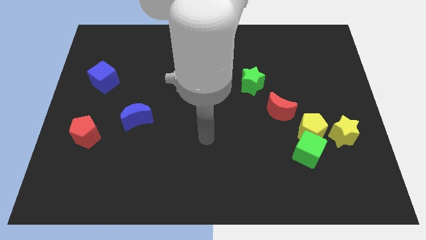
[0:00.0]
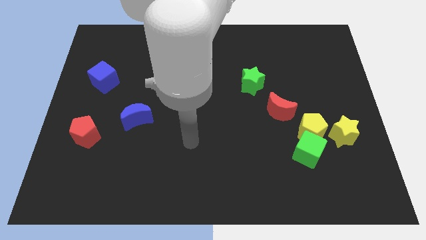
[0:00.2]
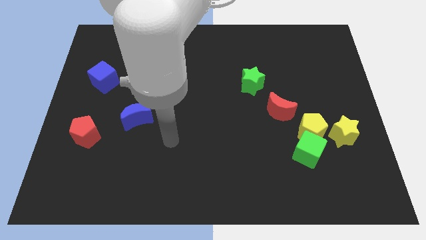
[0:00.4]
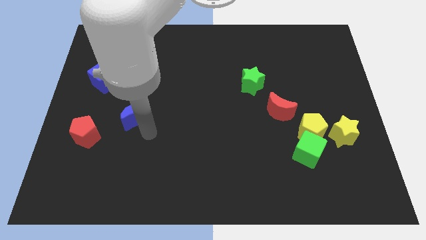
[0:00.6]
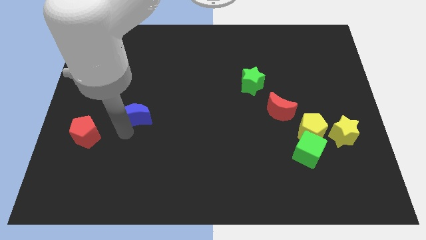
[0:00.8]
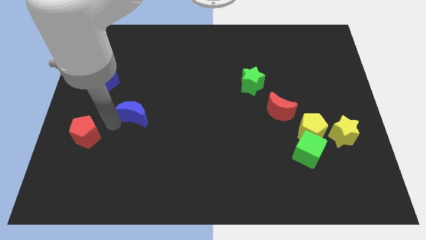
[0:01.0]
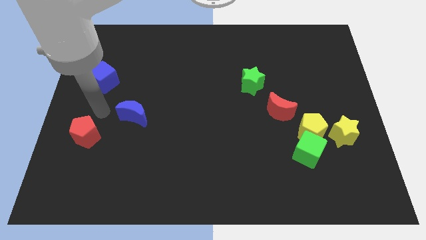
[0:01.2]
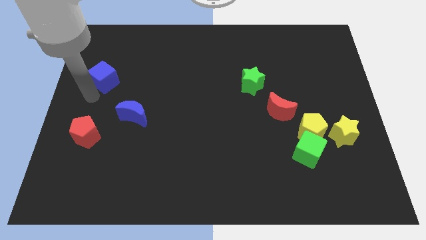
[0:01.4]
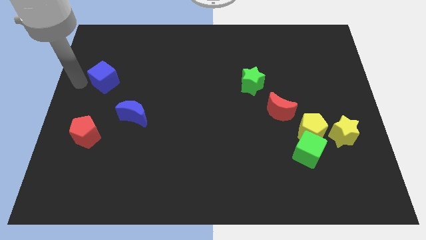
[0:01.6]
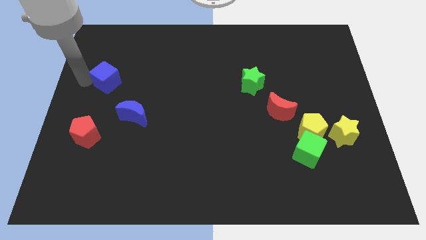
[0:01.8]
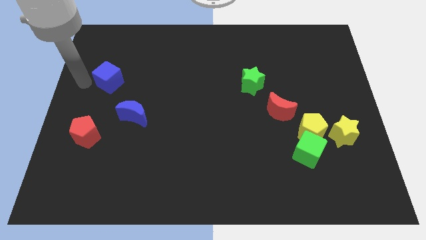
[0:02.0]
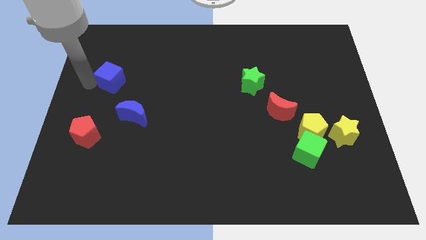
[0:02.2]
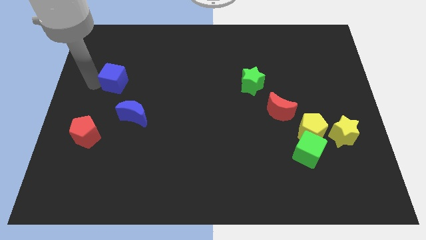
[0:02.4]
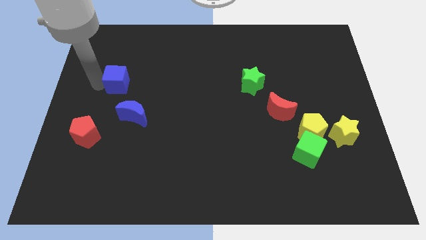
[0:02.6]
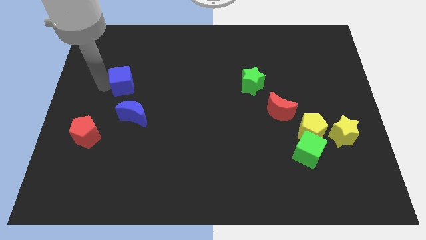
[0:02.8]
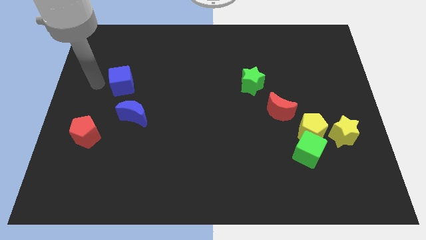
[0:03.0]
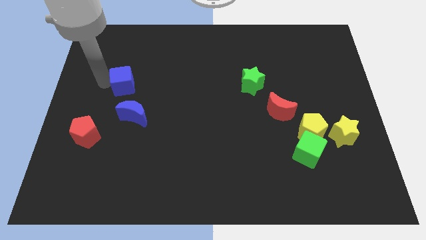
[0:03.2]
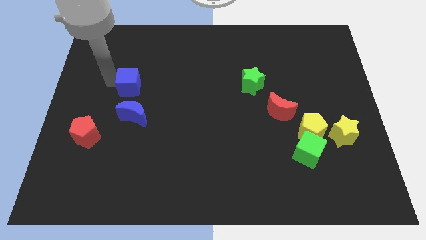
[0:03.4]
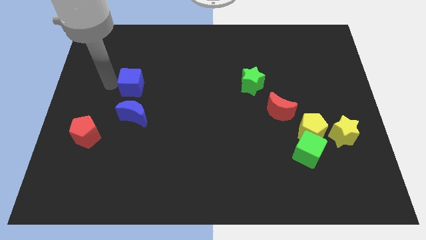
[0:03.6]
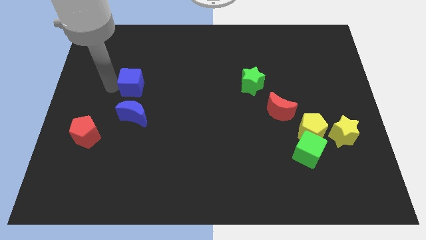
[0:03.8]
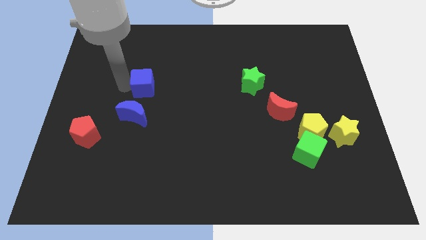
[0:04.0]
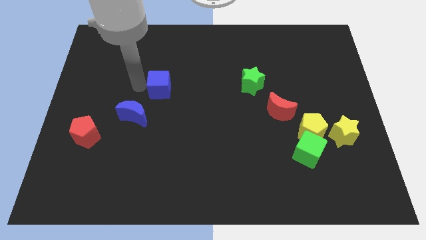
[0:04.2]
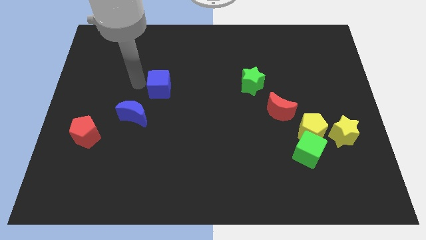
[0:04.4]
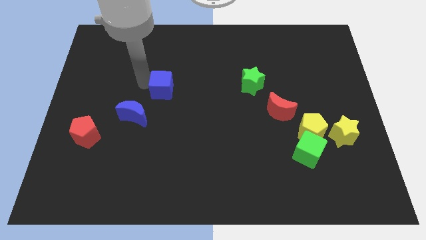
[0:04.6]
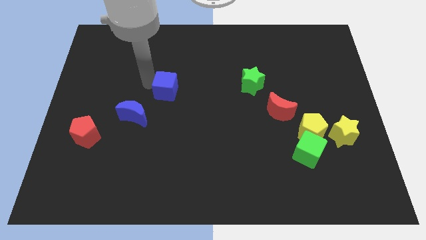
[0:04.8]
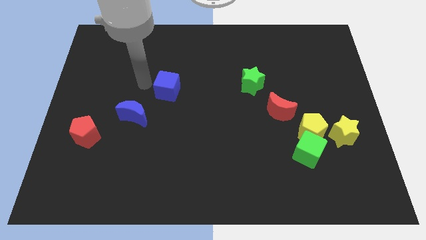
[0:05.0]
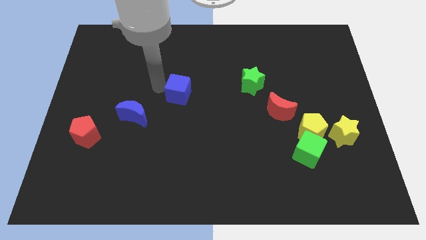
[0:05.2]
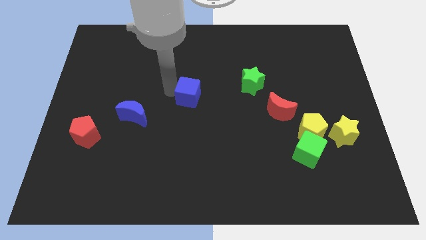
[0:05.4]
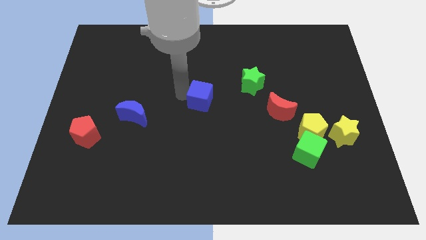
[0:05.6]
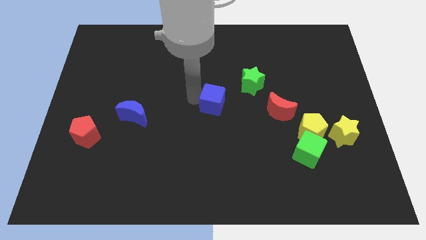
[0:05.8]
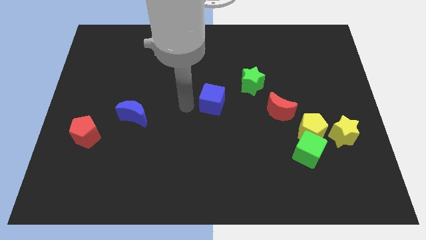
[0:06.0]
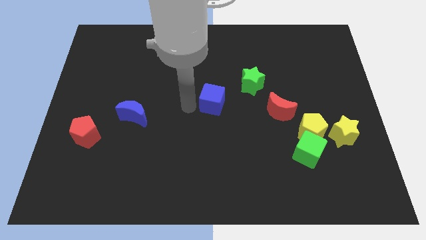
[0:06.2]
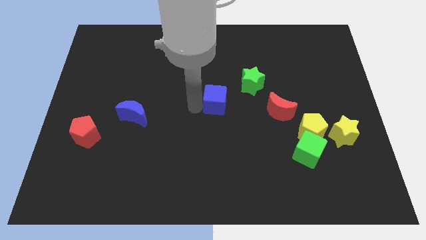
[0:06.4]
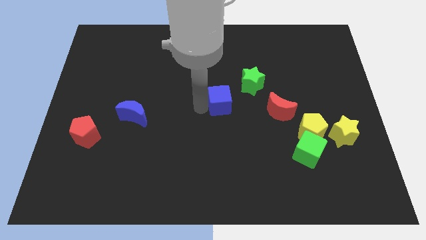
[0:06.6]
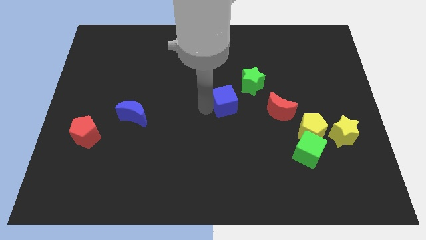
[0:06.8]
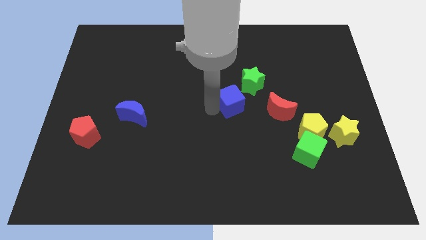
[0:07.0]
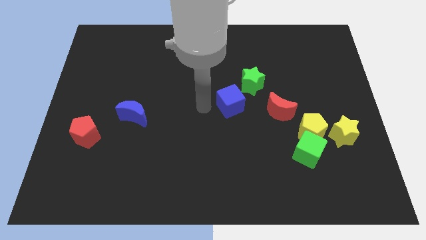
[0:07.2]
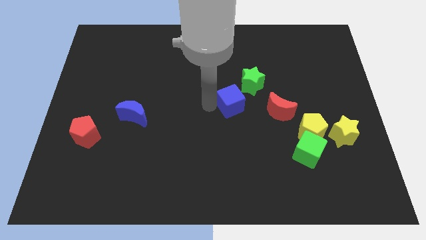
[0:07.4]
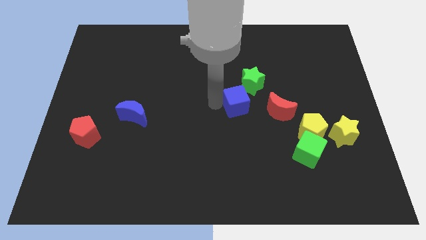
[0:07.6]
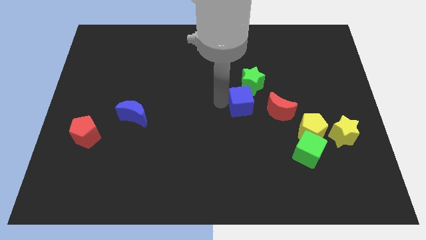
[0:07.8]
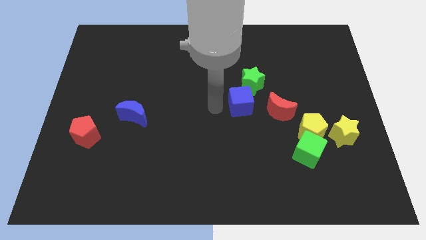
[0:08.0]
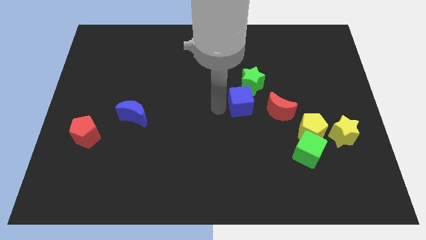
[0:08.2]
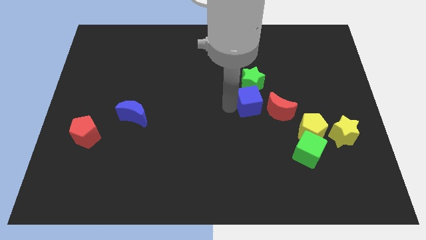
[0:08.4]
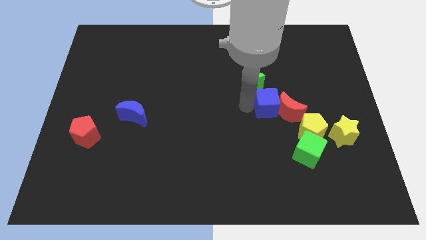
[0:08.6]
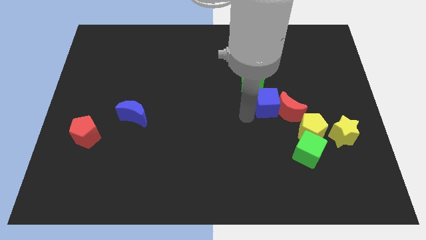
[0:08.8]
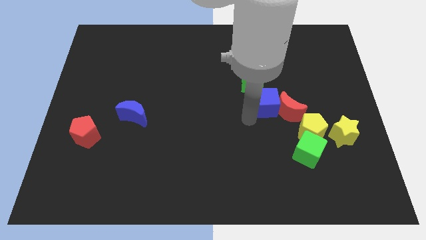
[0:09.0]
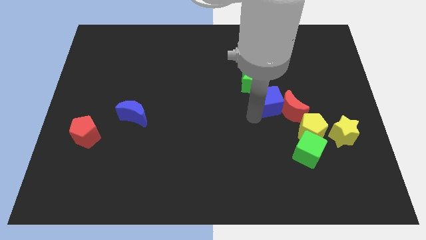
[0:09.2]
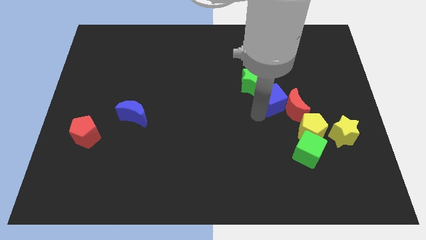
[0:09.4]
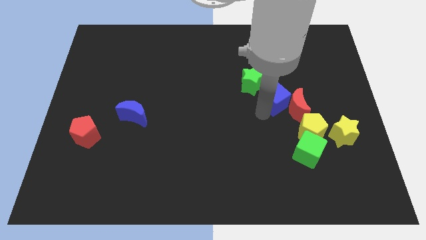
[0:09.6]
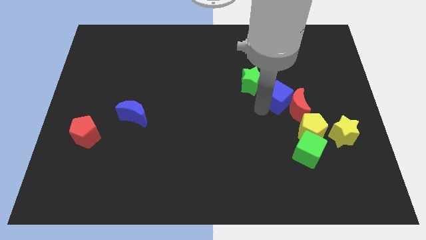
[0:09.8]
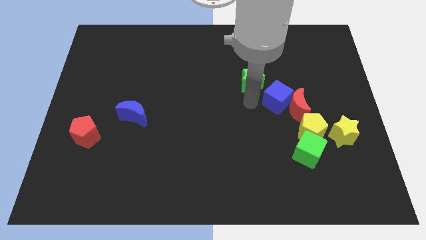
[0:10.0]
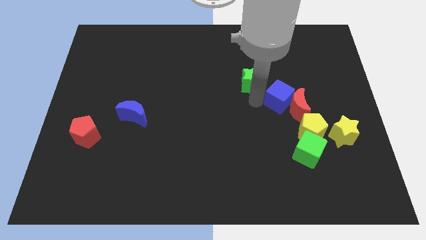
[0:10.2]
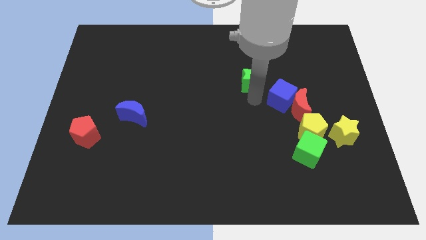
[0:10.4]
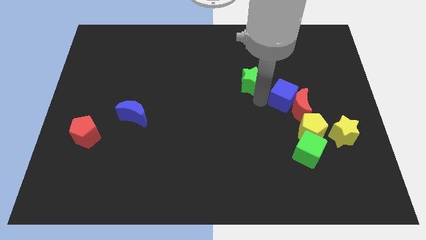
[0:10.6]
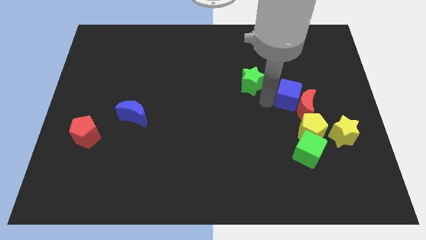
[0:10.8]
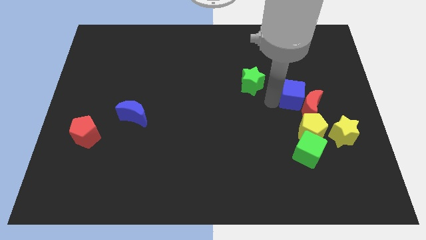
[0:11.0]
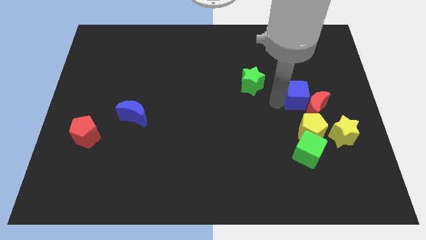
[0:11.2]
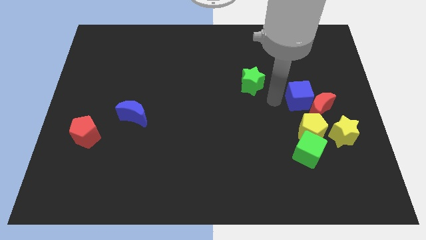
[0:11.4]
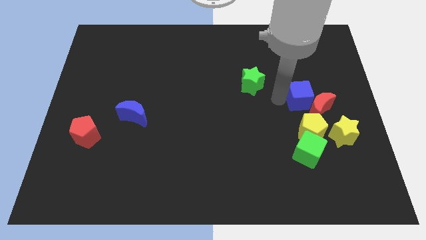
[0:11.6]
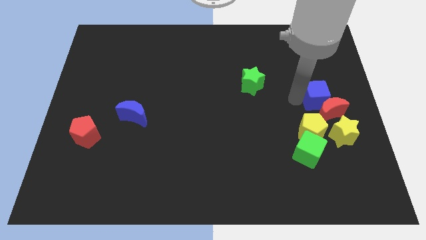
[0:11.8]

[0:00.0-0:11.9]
put the blue cube to the top side of the yellow star

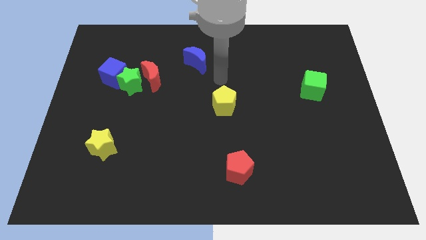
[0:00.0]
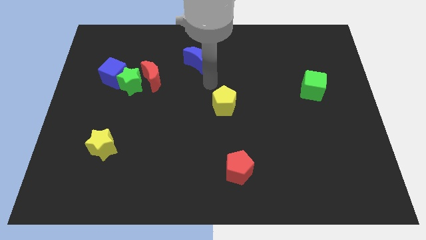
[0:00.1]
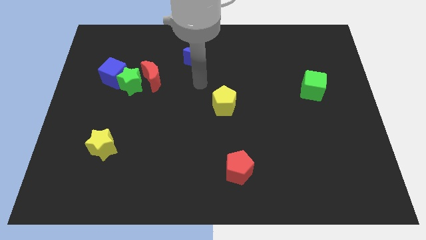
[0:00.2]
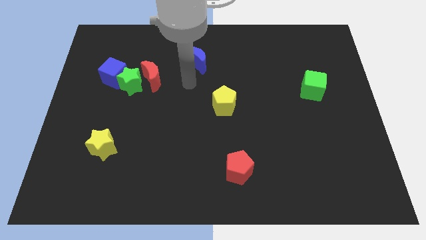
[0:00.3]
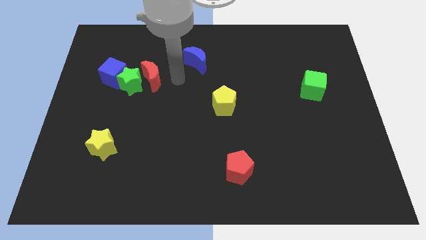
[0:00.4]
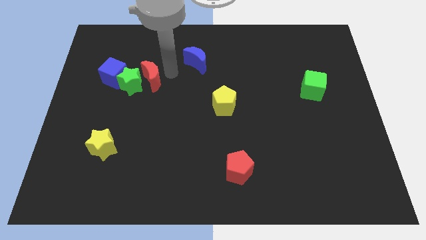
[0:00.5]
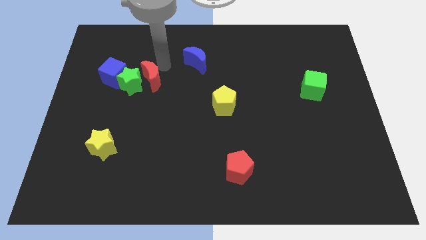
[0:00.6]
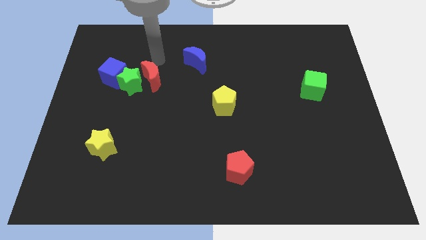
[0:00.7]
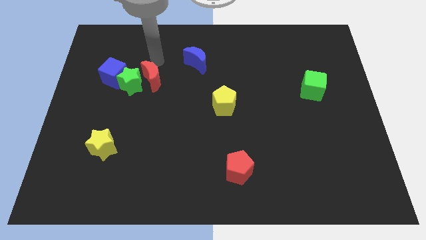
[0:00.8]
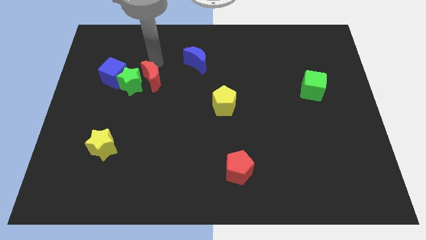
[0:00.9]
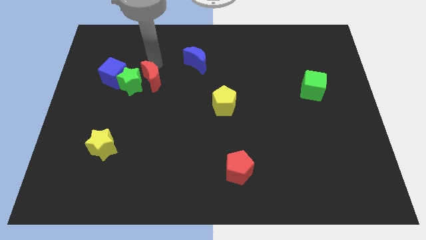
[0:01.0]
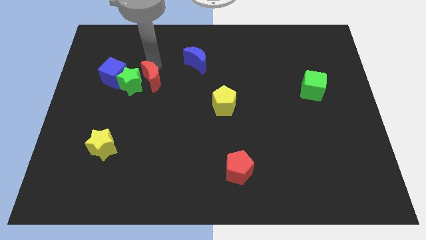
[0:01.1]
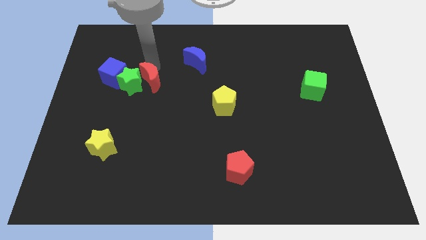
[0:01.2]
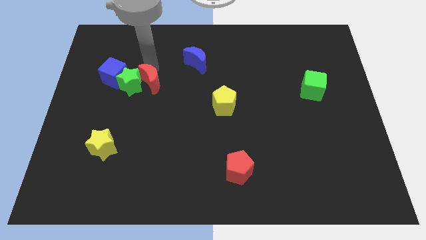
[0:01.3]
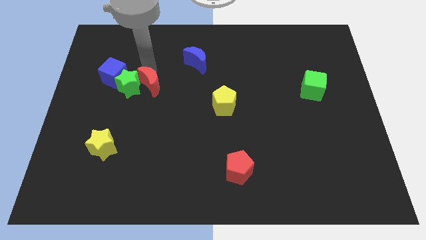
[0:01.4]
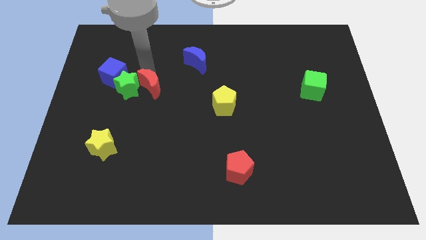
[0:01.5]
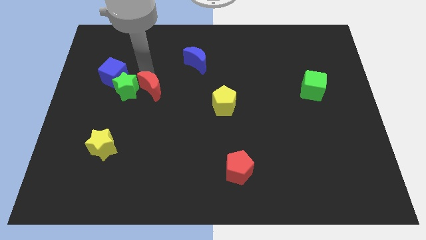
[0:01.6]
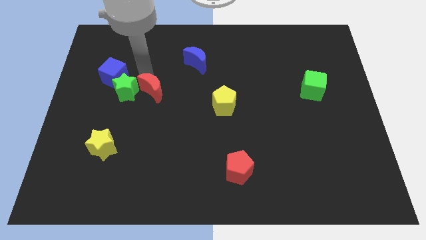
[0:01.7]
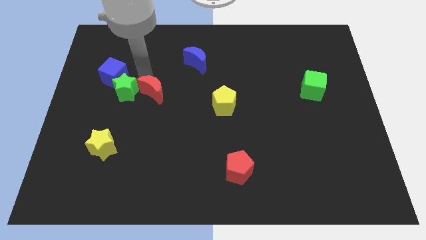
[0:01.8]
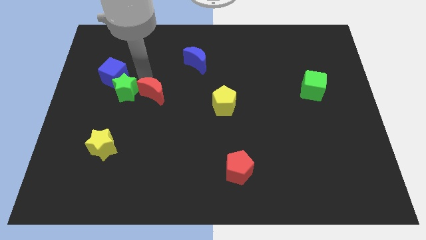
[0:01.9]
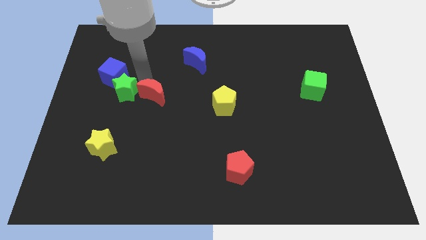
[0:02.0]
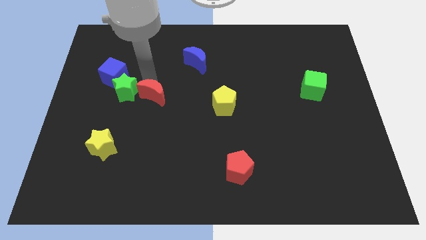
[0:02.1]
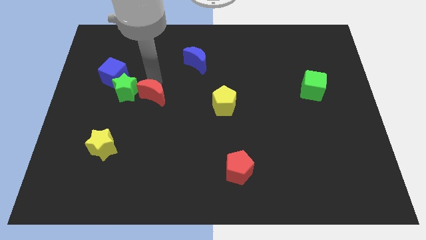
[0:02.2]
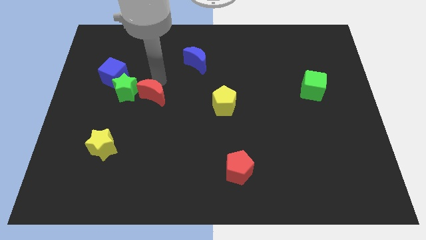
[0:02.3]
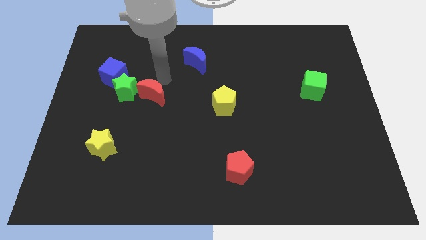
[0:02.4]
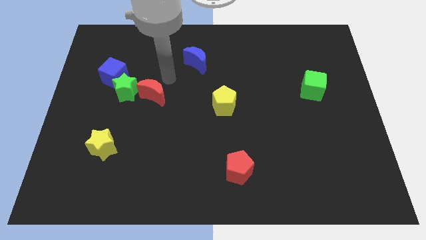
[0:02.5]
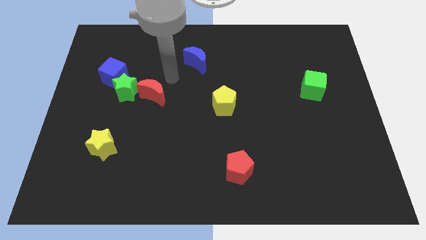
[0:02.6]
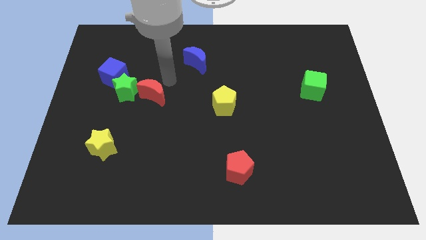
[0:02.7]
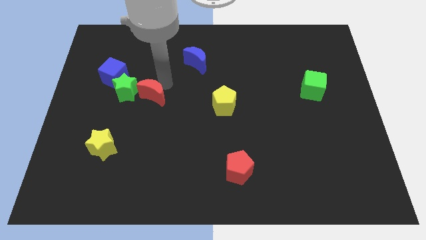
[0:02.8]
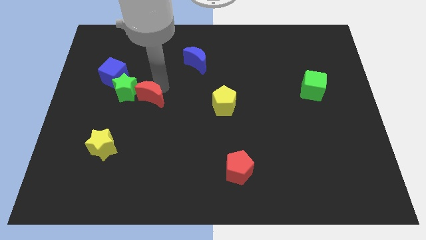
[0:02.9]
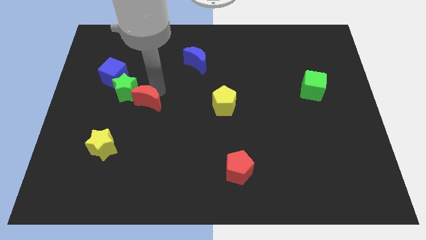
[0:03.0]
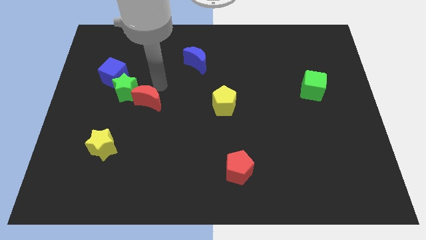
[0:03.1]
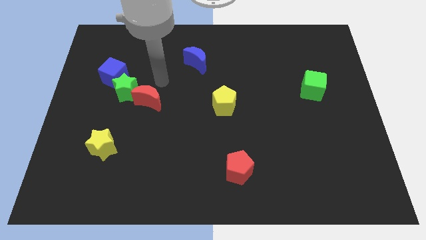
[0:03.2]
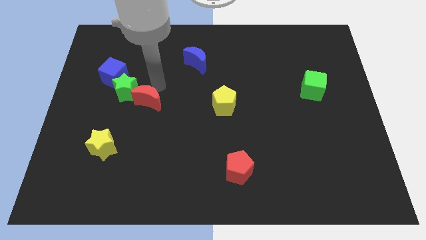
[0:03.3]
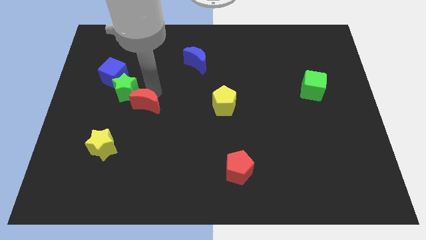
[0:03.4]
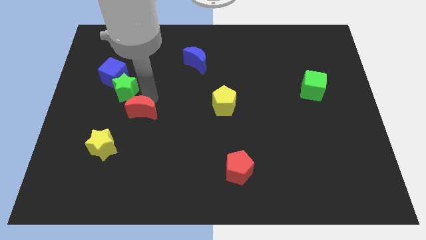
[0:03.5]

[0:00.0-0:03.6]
move the red moon diagonally up and to the right of the yellow star
